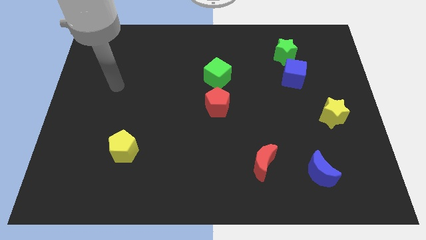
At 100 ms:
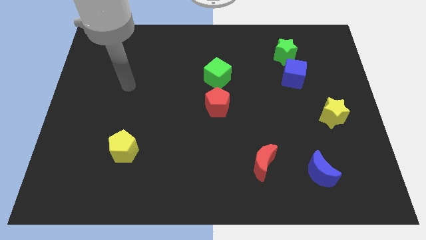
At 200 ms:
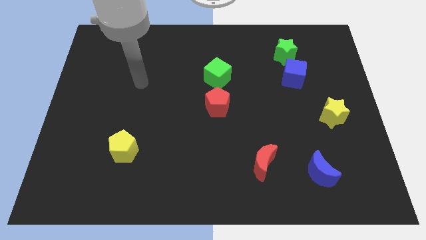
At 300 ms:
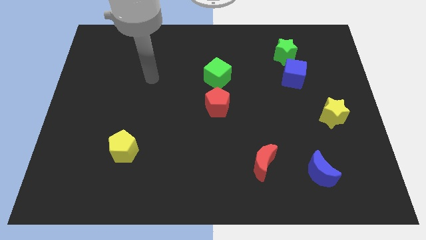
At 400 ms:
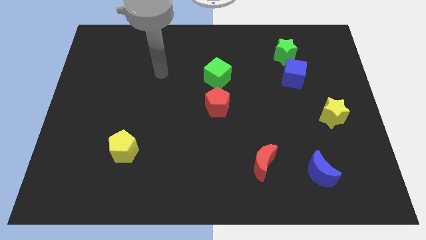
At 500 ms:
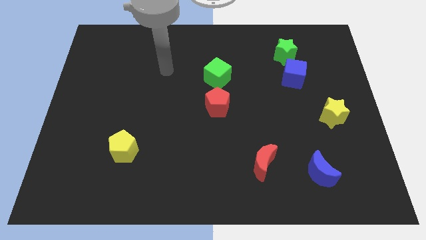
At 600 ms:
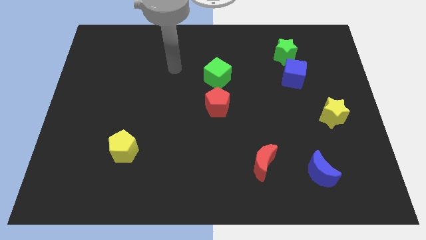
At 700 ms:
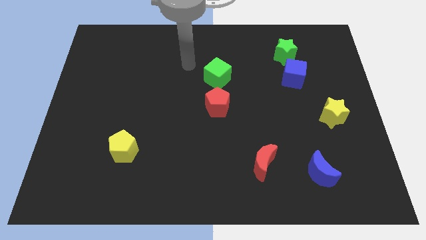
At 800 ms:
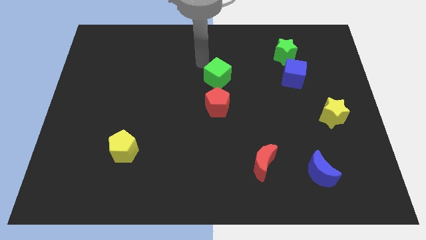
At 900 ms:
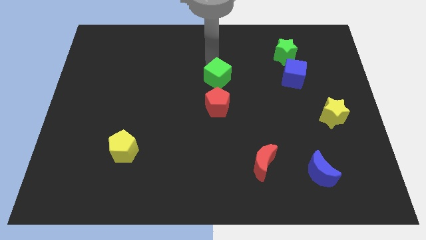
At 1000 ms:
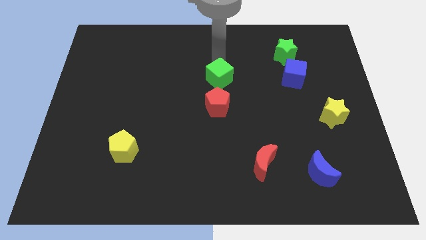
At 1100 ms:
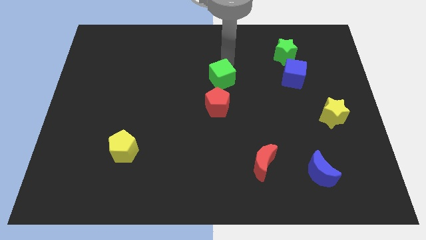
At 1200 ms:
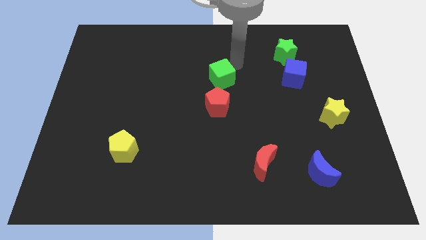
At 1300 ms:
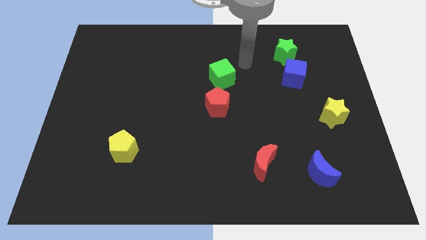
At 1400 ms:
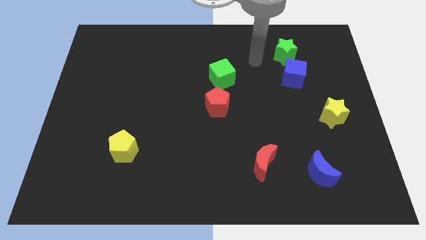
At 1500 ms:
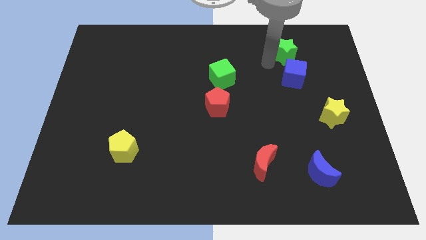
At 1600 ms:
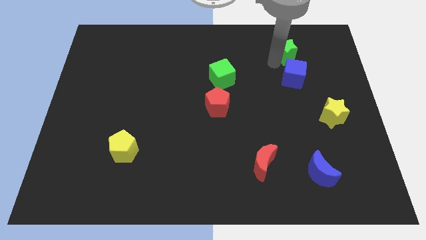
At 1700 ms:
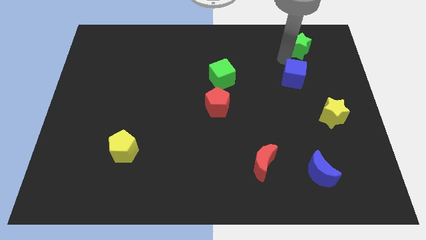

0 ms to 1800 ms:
separate the blue cube from the green star

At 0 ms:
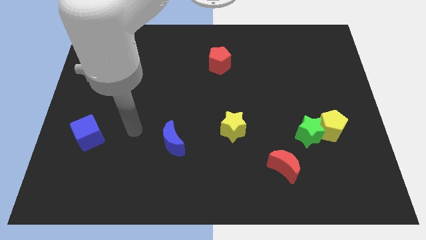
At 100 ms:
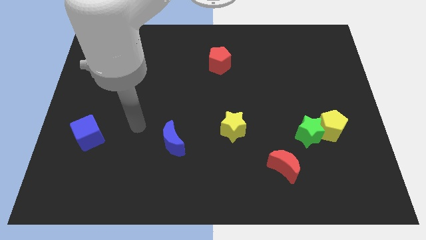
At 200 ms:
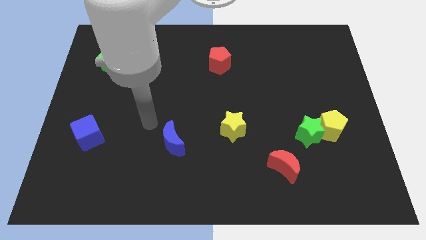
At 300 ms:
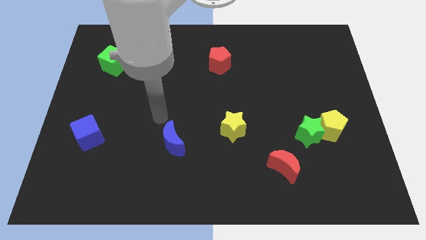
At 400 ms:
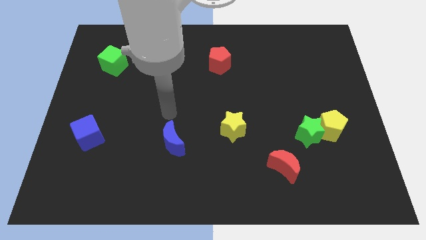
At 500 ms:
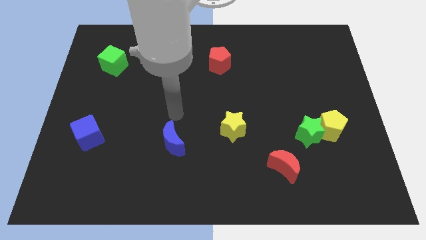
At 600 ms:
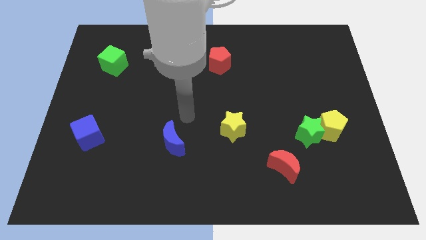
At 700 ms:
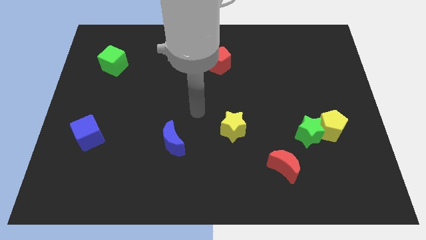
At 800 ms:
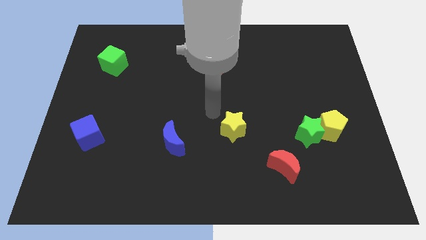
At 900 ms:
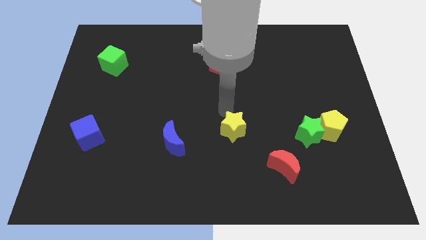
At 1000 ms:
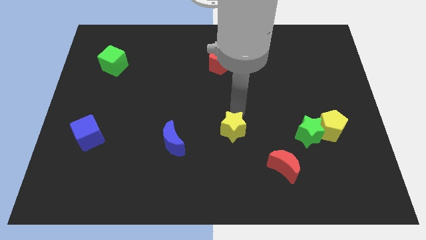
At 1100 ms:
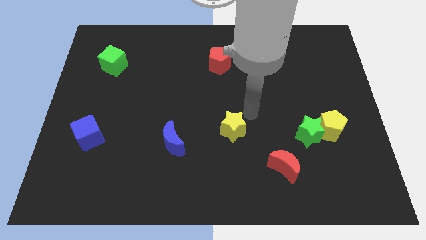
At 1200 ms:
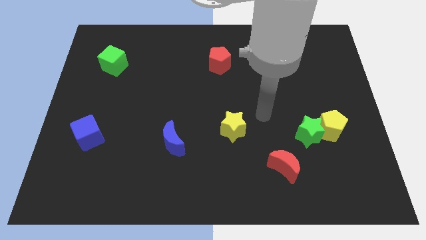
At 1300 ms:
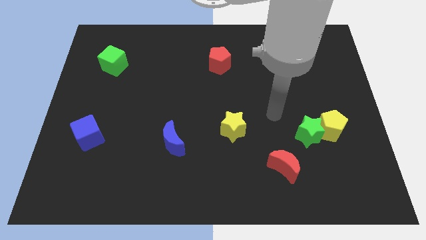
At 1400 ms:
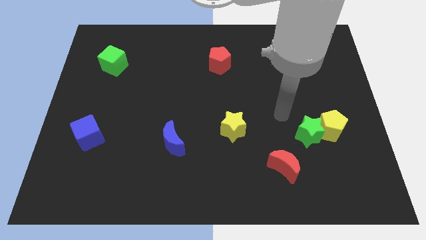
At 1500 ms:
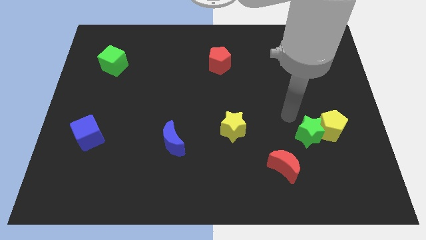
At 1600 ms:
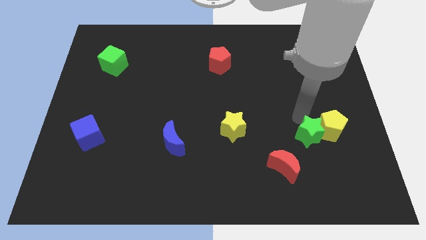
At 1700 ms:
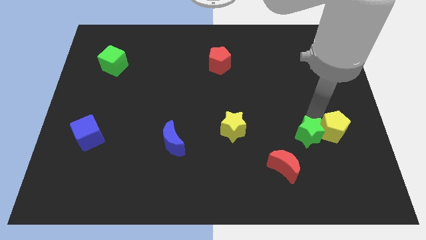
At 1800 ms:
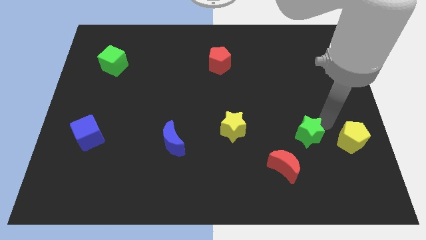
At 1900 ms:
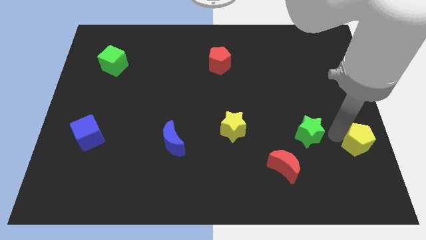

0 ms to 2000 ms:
pull the green star apart from the yellow pentagon

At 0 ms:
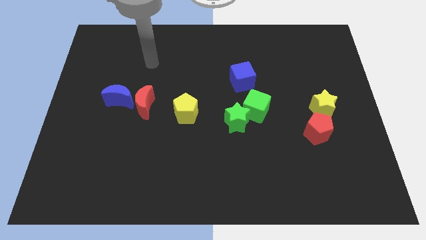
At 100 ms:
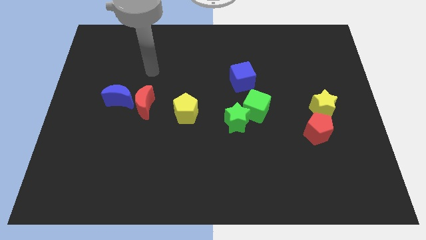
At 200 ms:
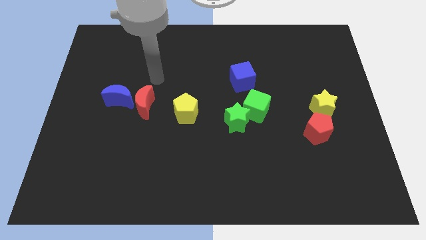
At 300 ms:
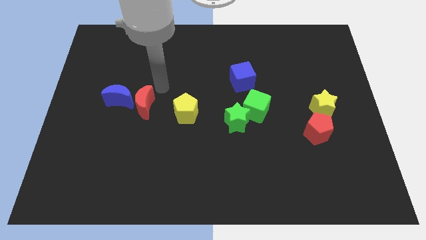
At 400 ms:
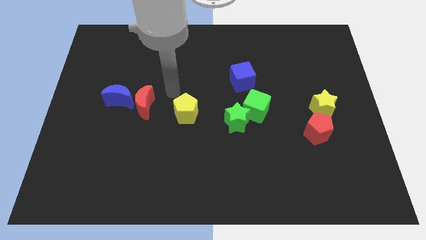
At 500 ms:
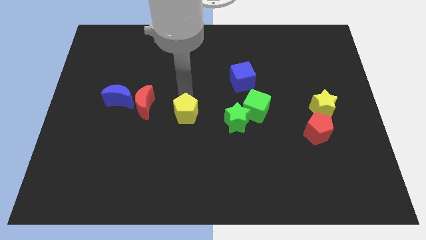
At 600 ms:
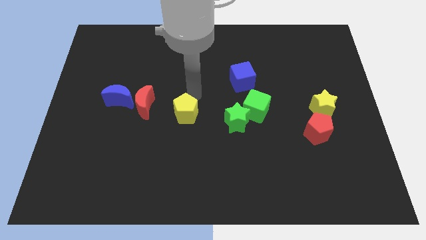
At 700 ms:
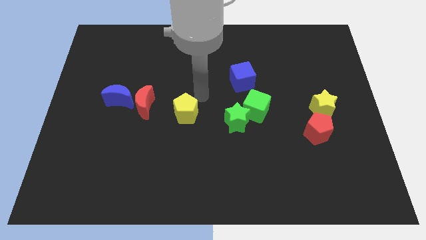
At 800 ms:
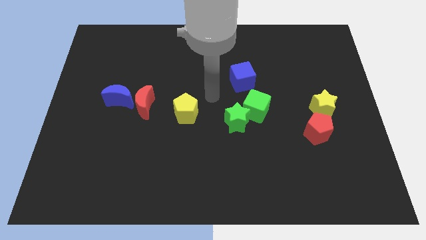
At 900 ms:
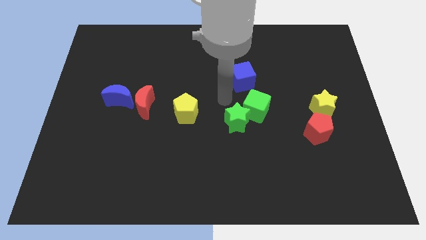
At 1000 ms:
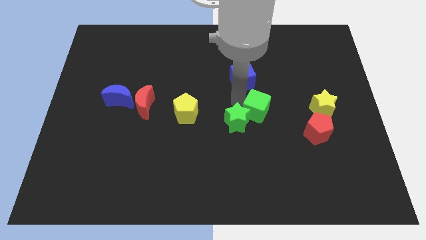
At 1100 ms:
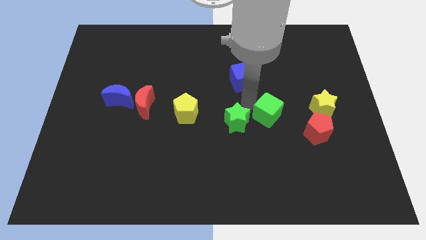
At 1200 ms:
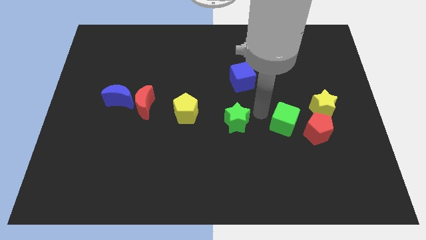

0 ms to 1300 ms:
pull the green star apart from the green cube

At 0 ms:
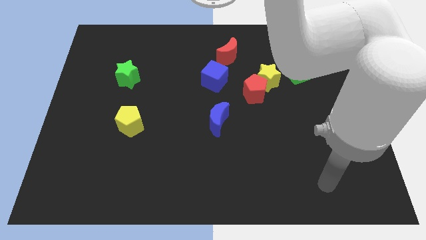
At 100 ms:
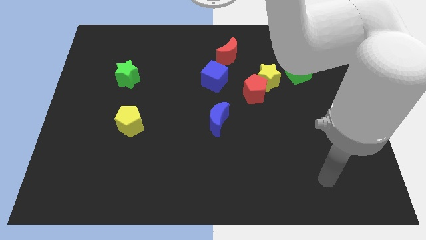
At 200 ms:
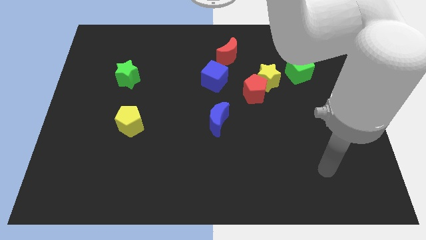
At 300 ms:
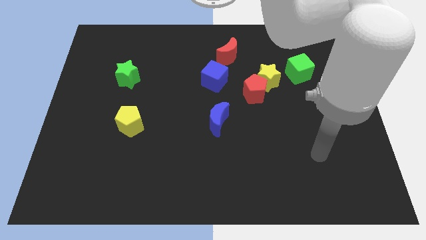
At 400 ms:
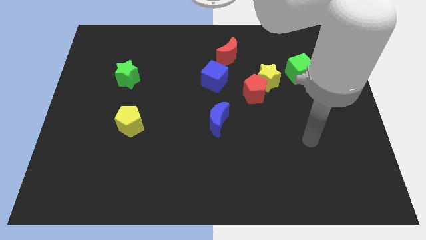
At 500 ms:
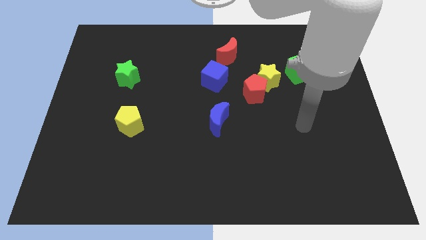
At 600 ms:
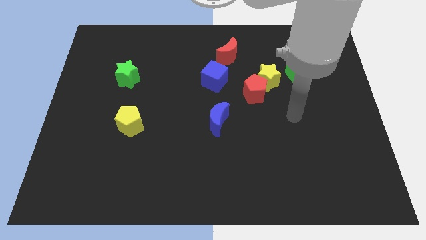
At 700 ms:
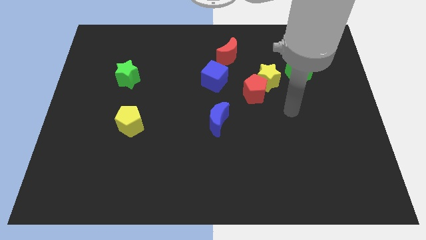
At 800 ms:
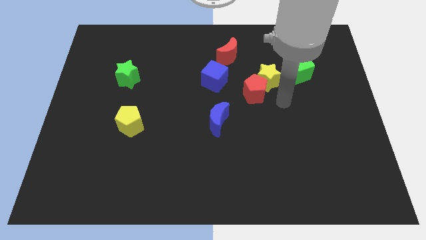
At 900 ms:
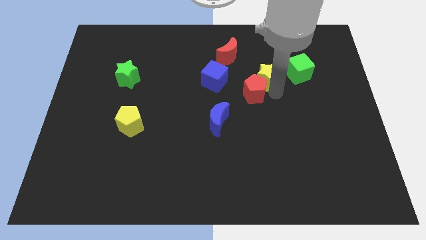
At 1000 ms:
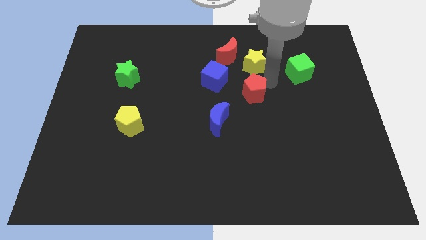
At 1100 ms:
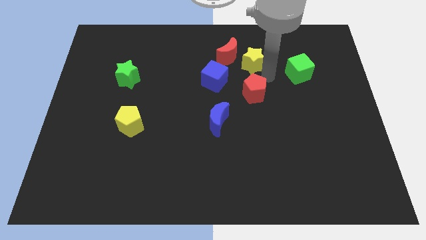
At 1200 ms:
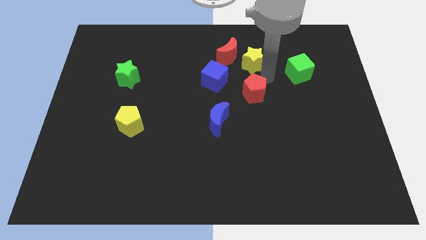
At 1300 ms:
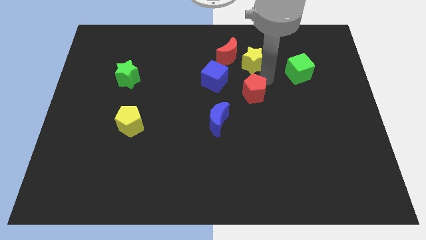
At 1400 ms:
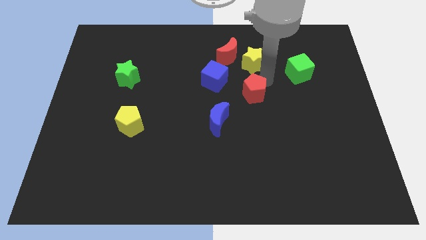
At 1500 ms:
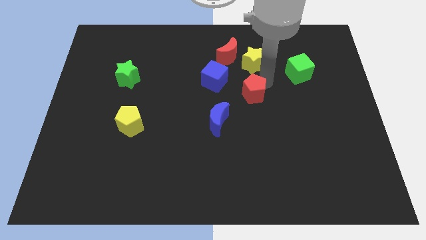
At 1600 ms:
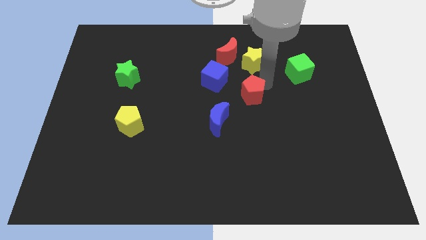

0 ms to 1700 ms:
separate the red pentagon from the yellow star

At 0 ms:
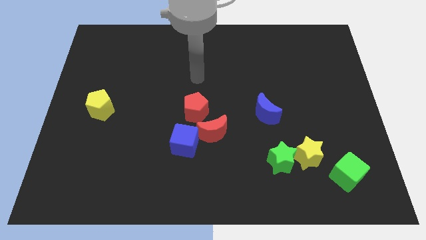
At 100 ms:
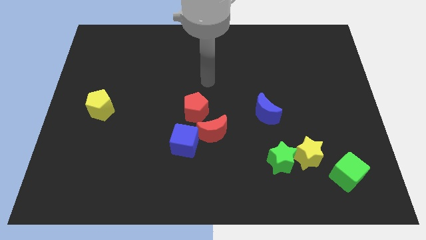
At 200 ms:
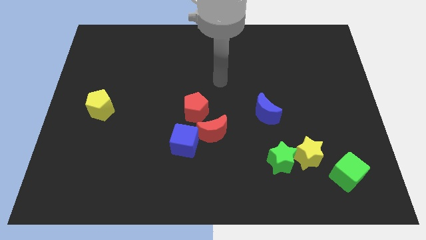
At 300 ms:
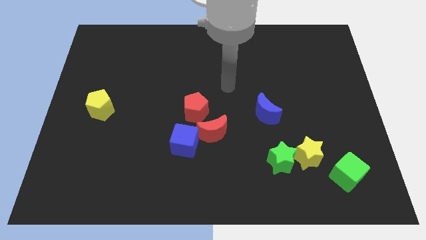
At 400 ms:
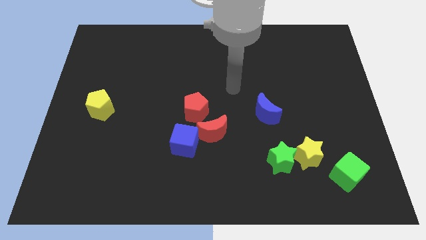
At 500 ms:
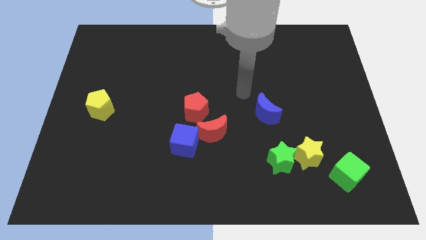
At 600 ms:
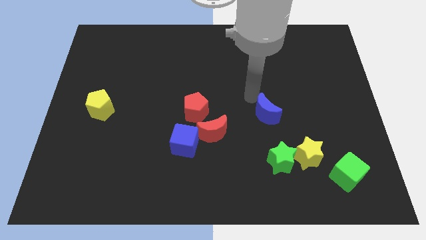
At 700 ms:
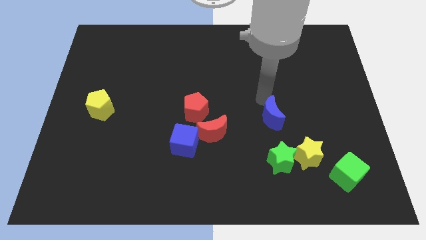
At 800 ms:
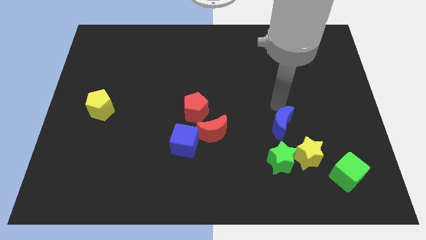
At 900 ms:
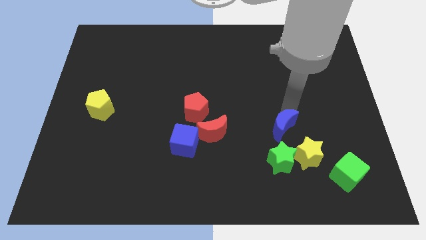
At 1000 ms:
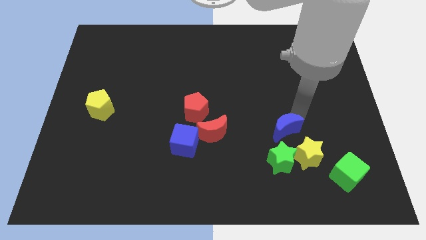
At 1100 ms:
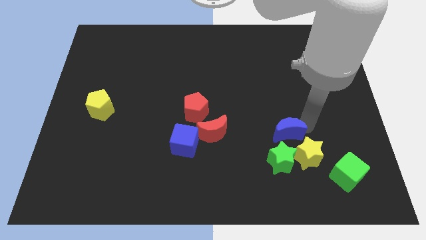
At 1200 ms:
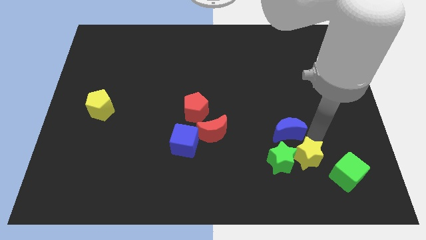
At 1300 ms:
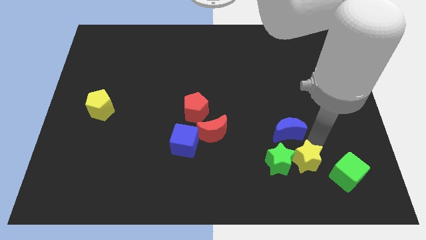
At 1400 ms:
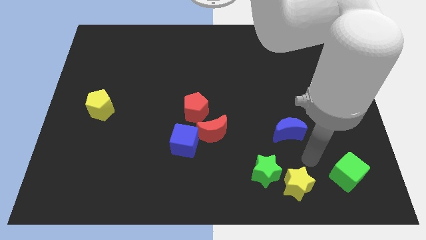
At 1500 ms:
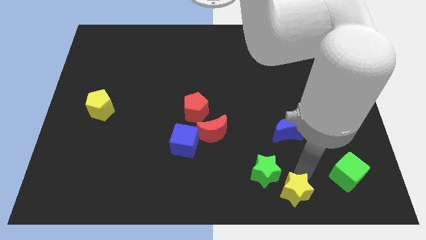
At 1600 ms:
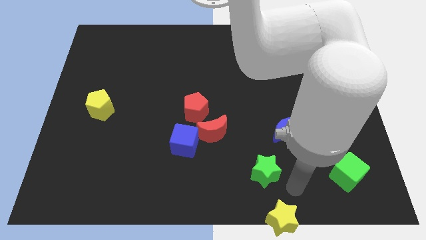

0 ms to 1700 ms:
separate the green star from the yellow star

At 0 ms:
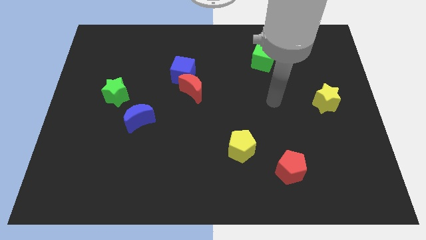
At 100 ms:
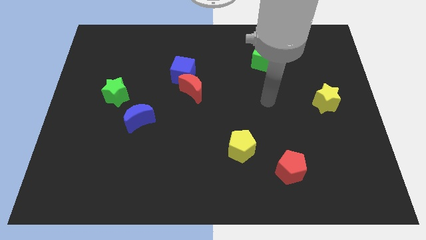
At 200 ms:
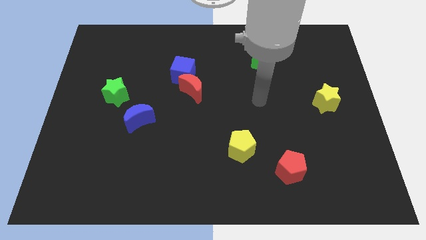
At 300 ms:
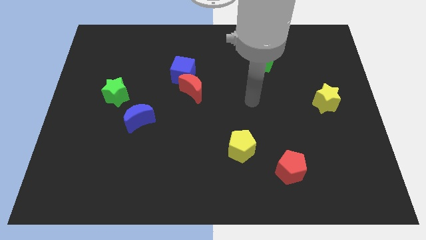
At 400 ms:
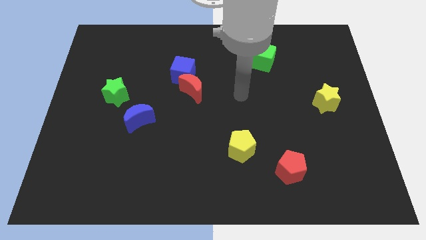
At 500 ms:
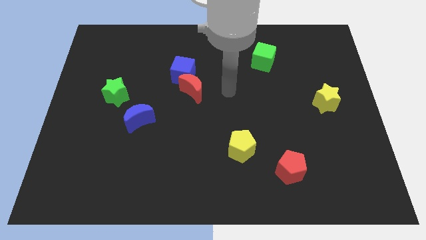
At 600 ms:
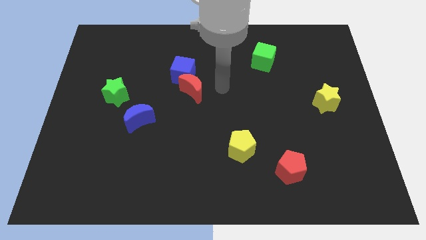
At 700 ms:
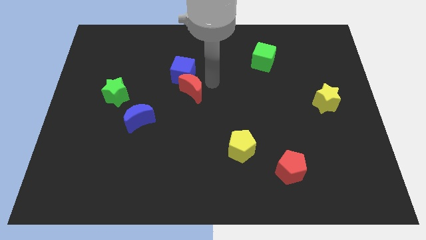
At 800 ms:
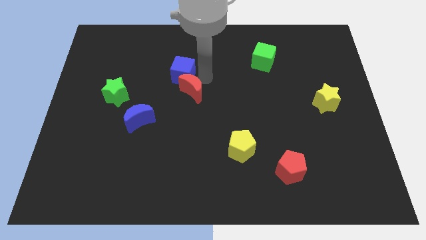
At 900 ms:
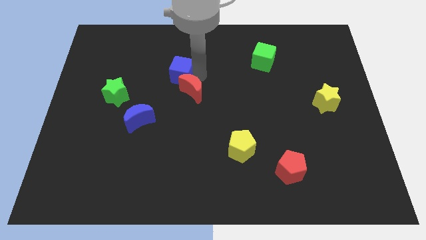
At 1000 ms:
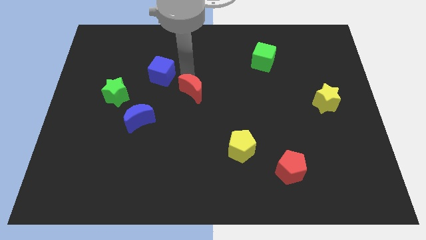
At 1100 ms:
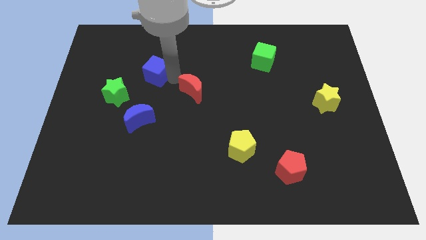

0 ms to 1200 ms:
move the red moon away from the blue cube
